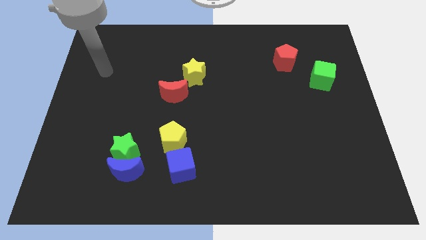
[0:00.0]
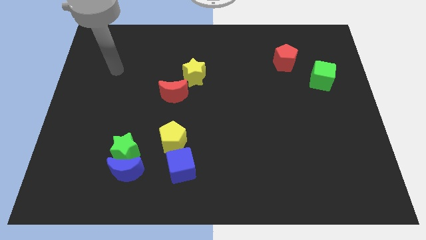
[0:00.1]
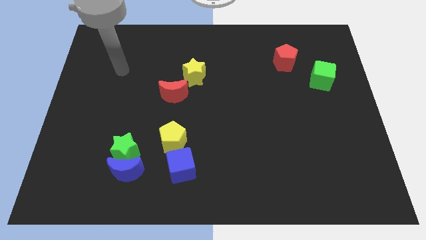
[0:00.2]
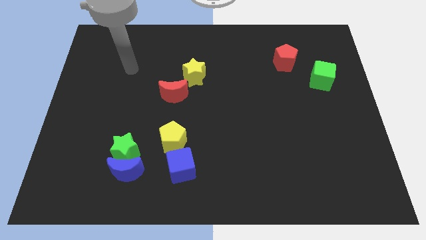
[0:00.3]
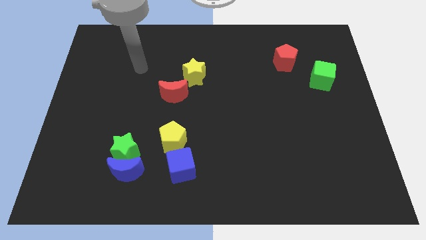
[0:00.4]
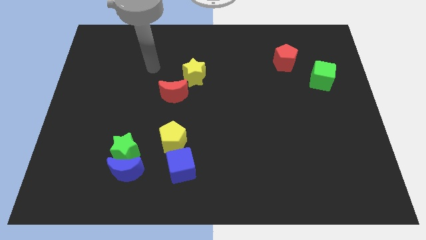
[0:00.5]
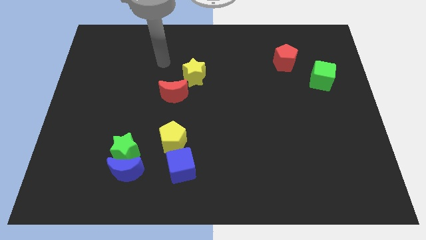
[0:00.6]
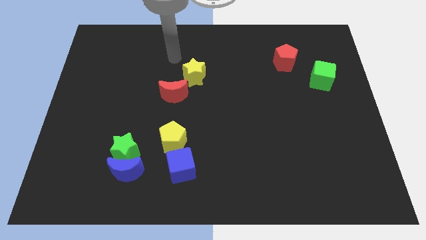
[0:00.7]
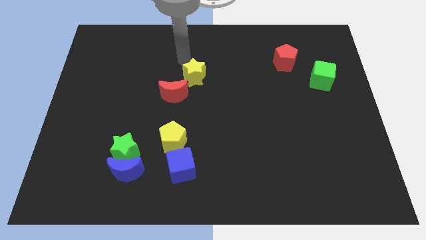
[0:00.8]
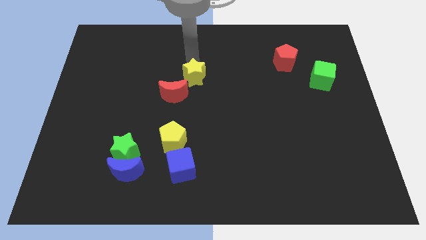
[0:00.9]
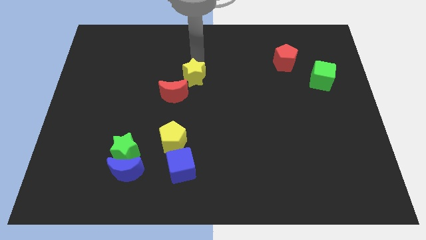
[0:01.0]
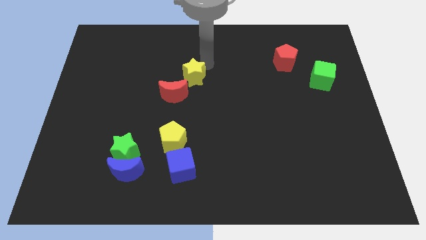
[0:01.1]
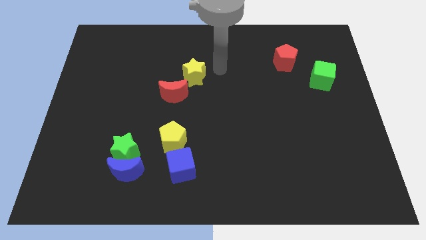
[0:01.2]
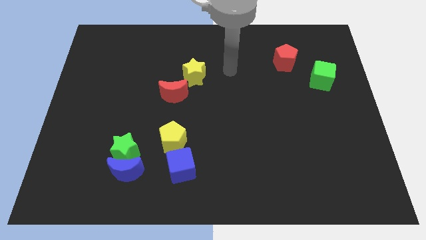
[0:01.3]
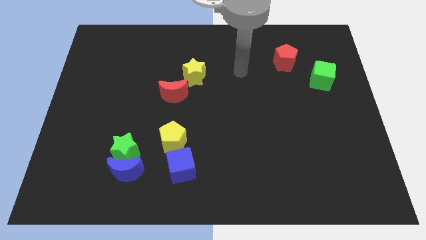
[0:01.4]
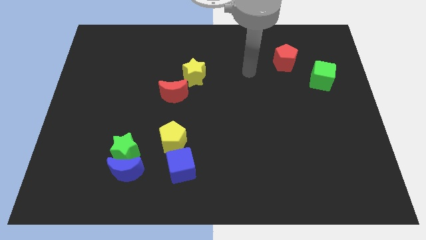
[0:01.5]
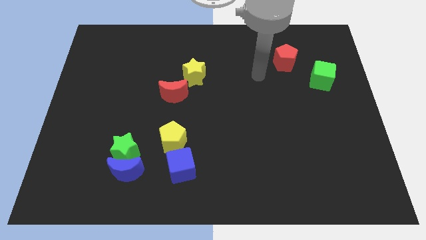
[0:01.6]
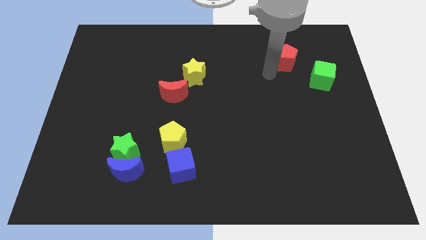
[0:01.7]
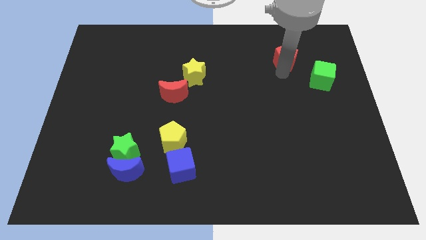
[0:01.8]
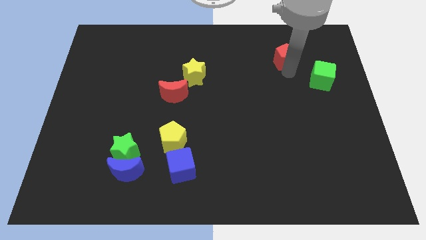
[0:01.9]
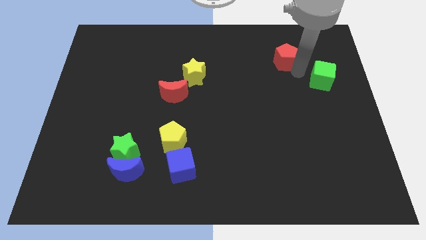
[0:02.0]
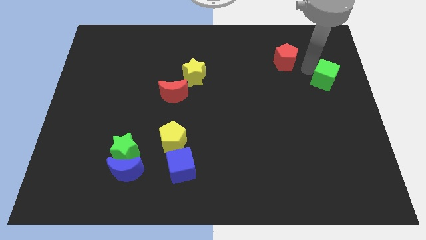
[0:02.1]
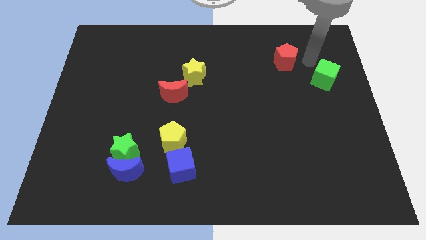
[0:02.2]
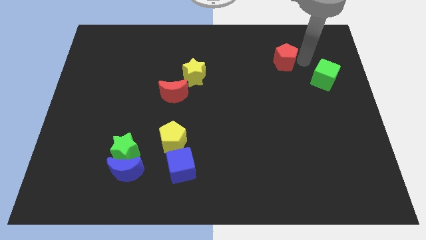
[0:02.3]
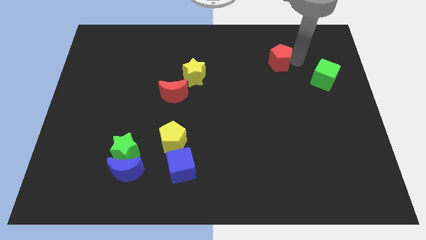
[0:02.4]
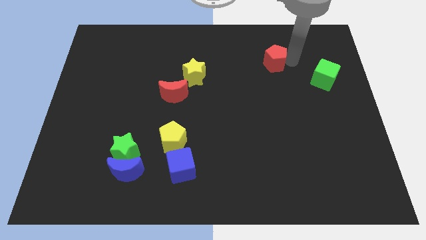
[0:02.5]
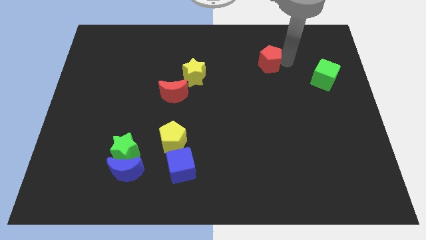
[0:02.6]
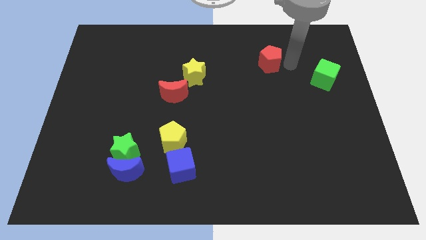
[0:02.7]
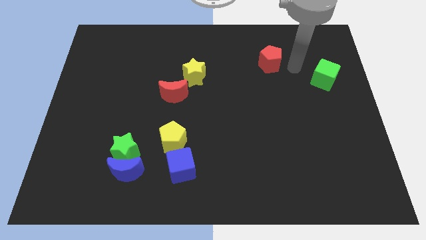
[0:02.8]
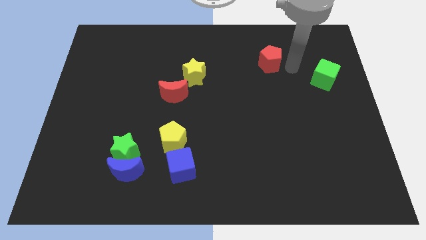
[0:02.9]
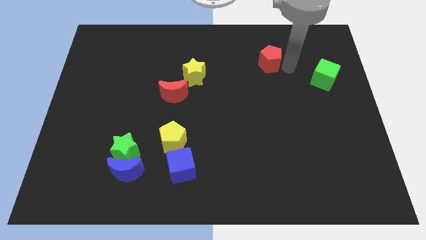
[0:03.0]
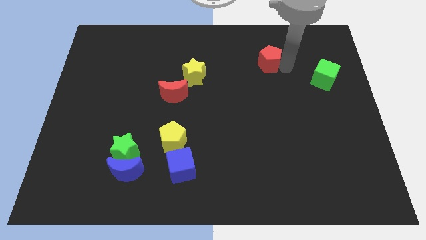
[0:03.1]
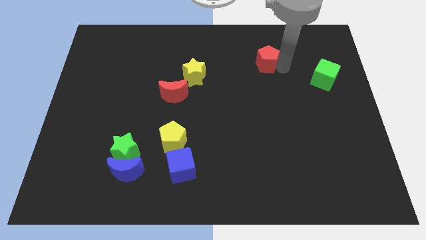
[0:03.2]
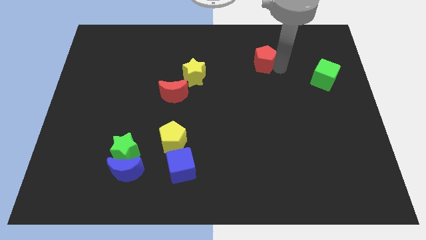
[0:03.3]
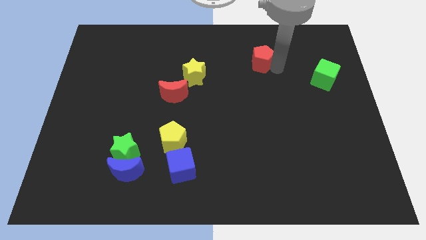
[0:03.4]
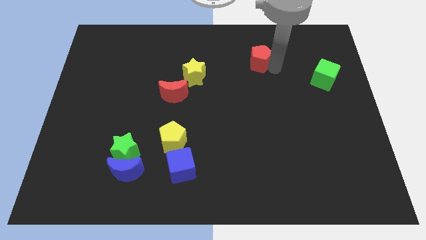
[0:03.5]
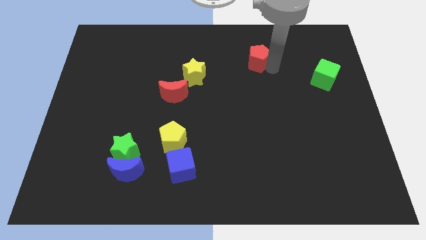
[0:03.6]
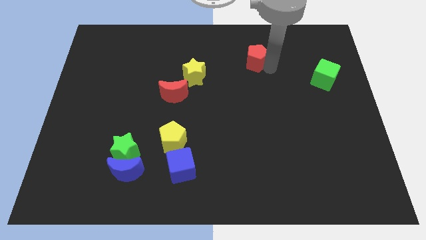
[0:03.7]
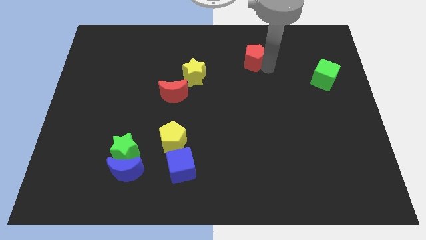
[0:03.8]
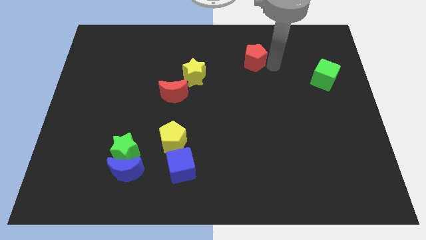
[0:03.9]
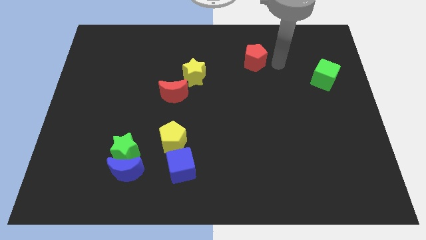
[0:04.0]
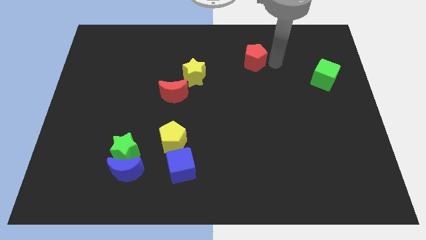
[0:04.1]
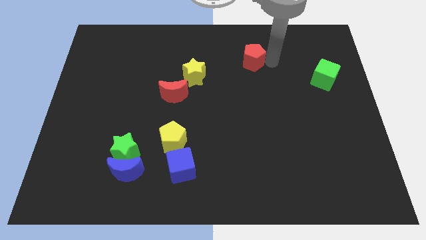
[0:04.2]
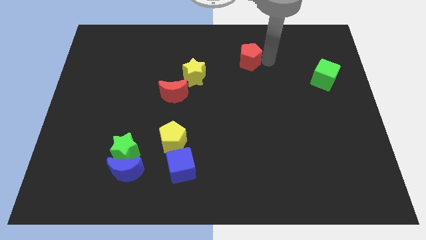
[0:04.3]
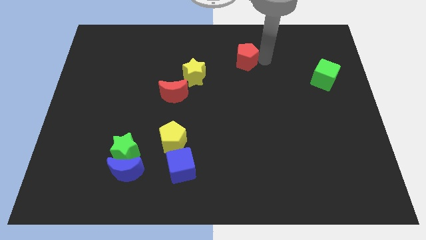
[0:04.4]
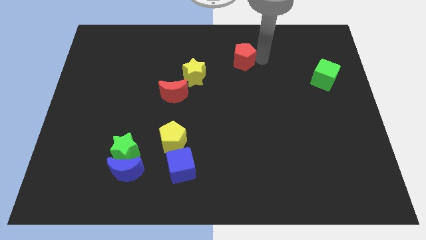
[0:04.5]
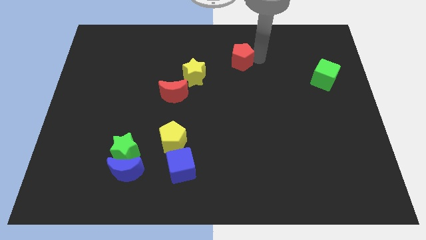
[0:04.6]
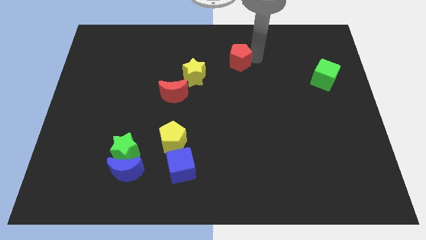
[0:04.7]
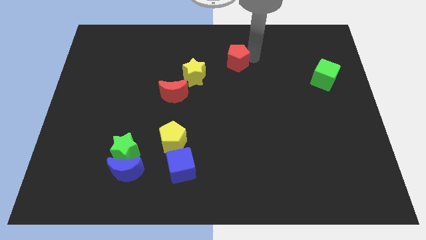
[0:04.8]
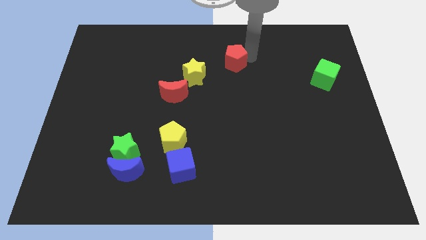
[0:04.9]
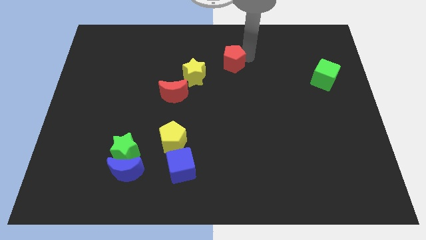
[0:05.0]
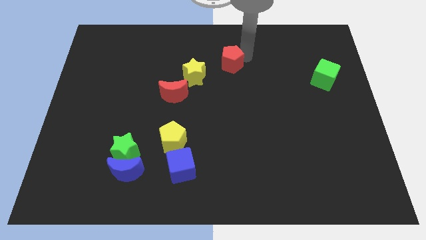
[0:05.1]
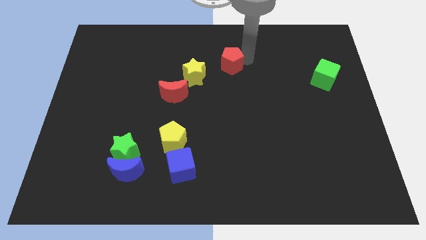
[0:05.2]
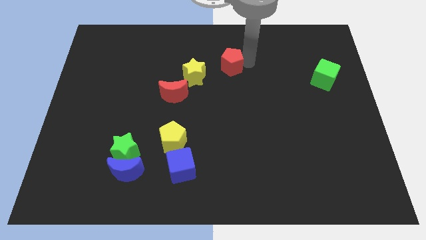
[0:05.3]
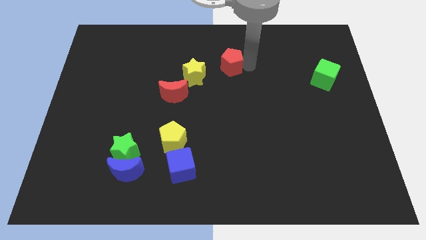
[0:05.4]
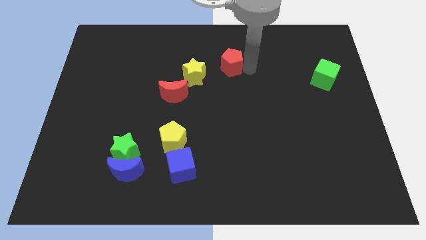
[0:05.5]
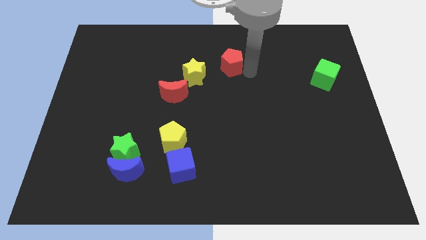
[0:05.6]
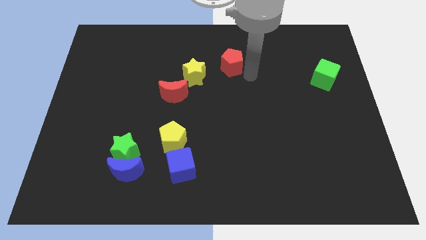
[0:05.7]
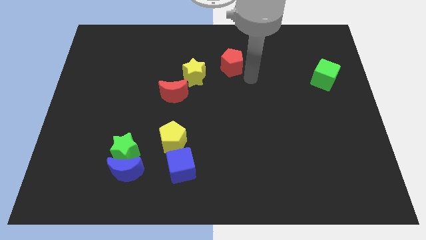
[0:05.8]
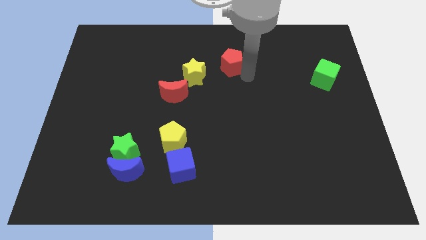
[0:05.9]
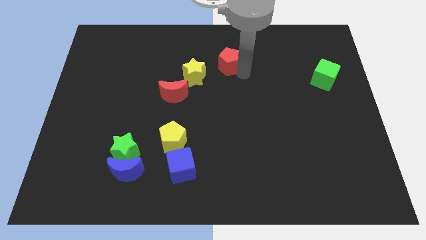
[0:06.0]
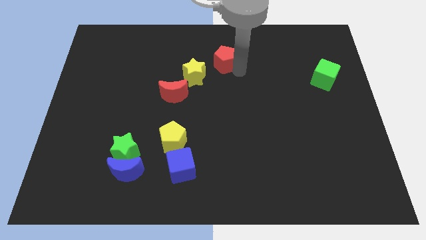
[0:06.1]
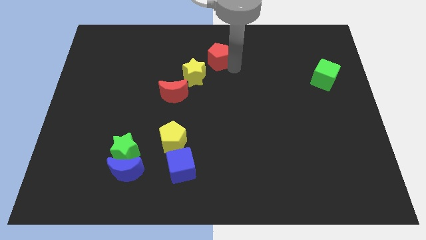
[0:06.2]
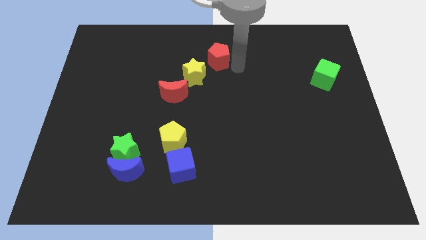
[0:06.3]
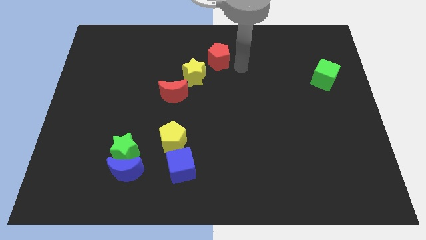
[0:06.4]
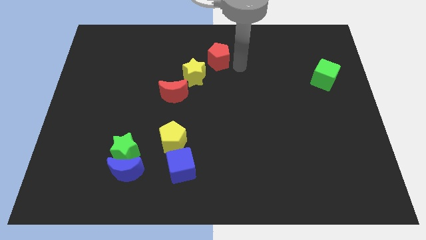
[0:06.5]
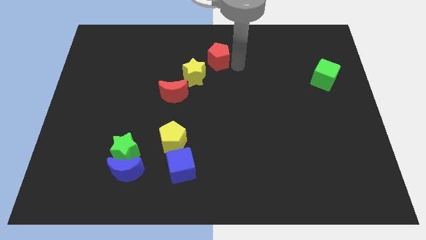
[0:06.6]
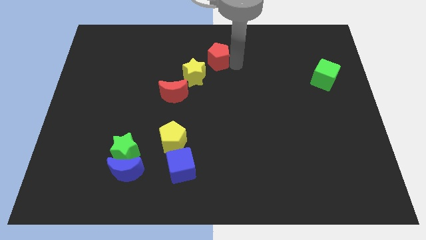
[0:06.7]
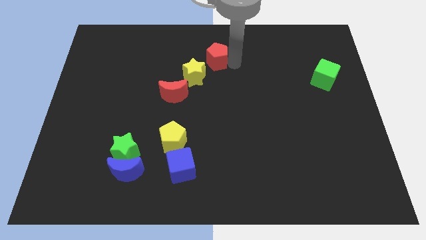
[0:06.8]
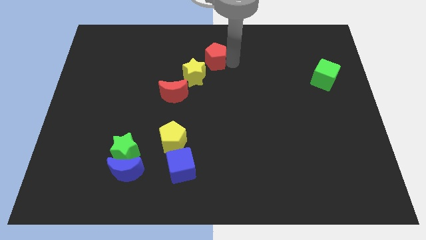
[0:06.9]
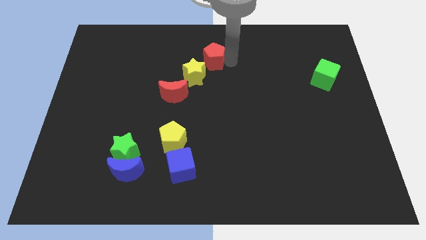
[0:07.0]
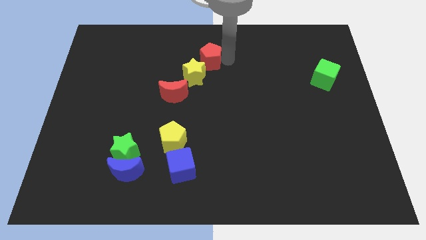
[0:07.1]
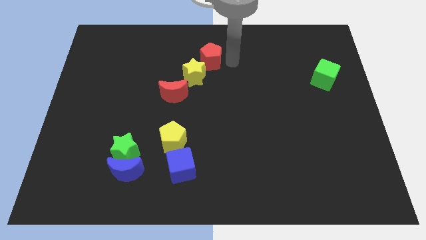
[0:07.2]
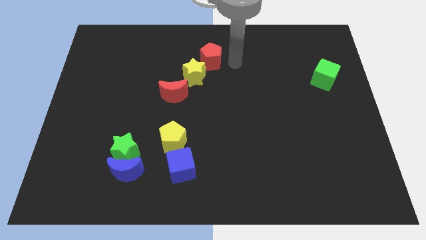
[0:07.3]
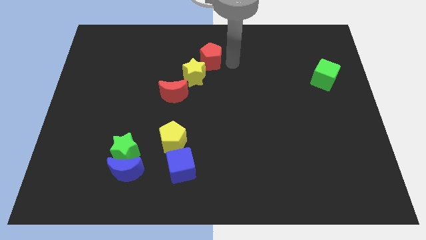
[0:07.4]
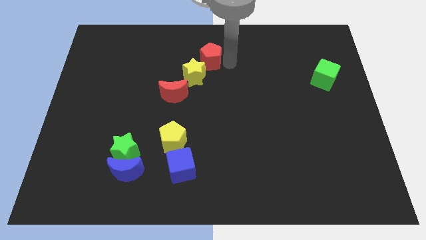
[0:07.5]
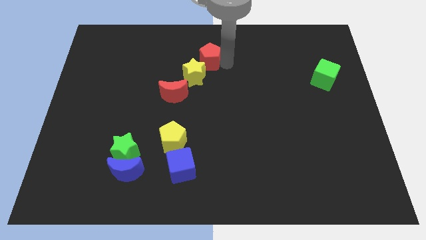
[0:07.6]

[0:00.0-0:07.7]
move the red pentagon left

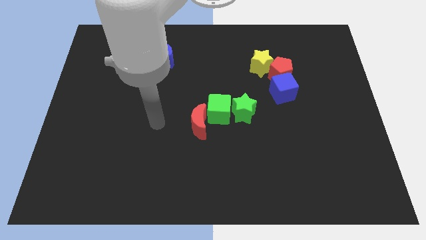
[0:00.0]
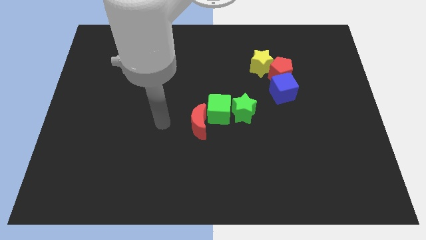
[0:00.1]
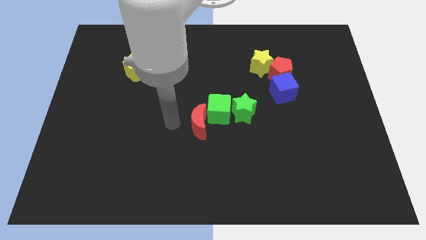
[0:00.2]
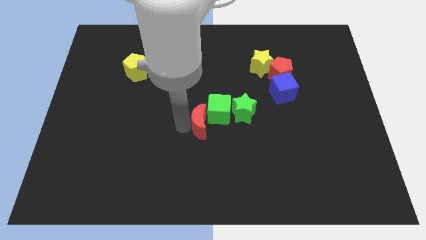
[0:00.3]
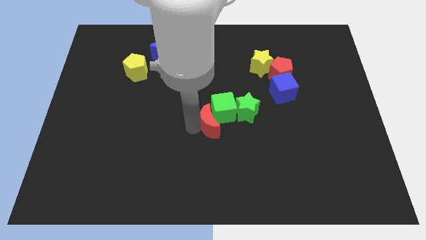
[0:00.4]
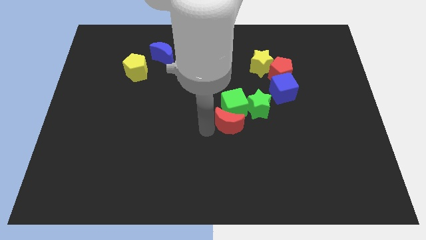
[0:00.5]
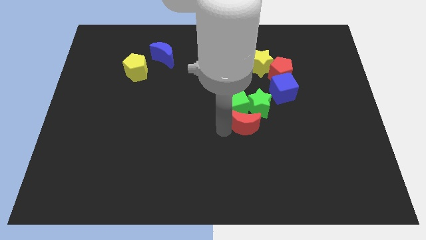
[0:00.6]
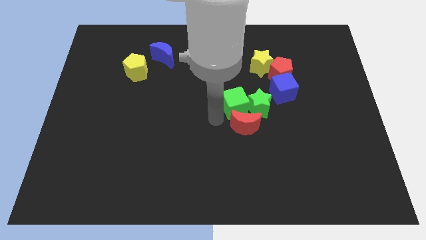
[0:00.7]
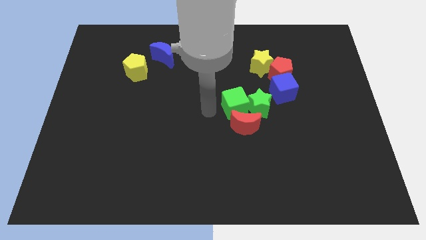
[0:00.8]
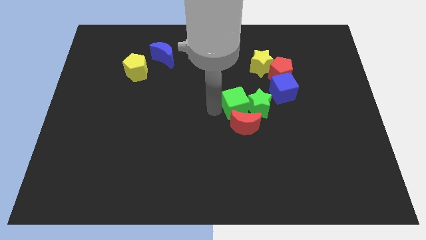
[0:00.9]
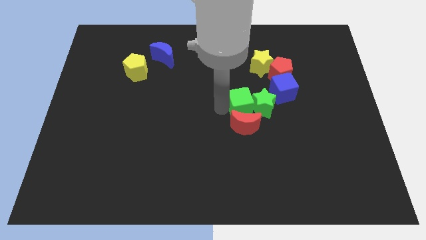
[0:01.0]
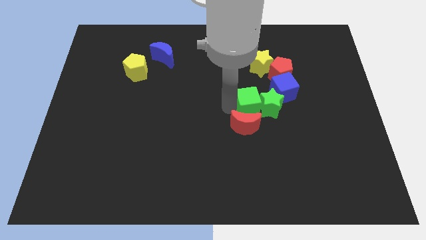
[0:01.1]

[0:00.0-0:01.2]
move the green cube right a little
